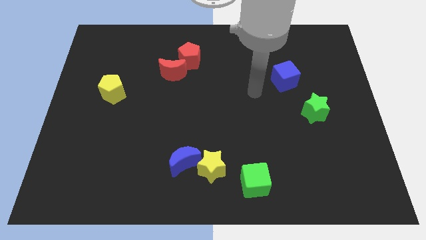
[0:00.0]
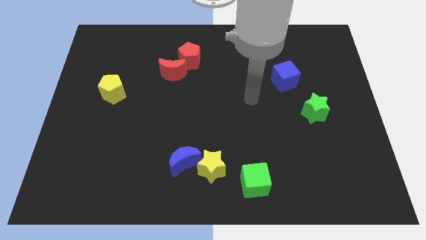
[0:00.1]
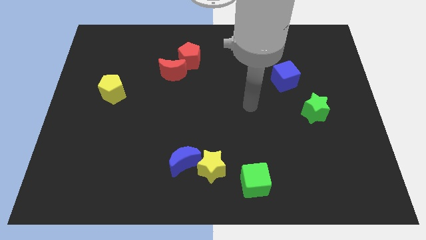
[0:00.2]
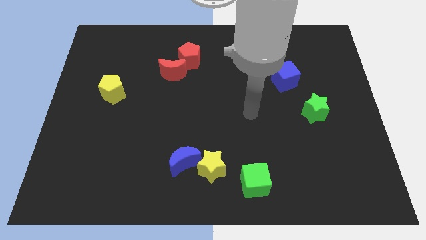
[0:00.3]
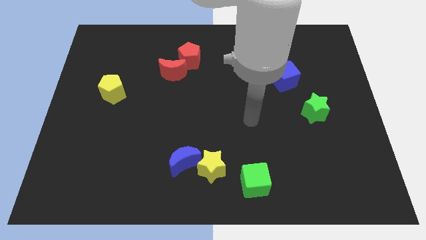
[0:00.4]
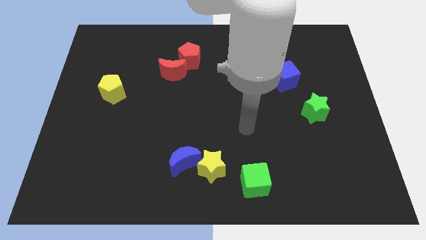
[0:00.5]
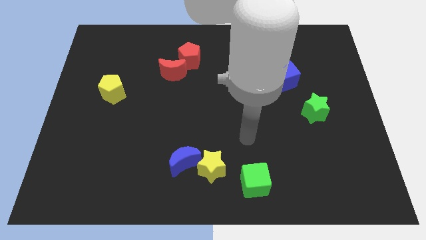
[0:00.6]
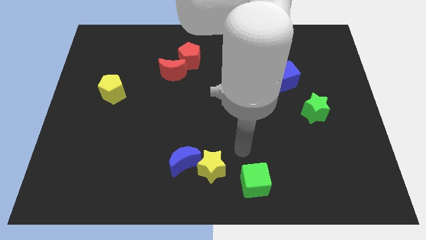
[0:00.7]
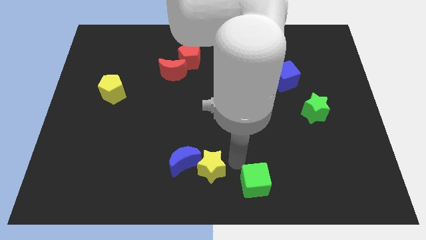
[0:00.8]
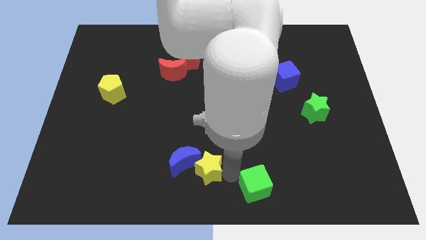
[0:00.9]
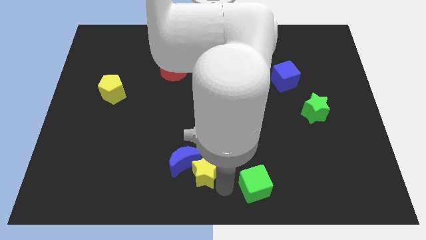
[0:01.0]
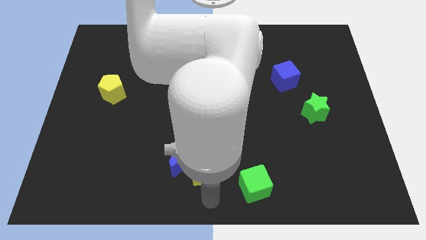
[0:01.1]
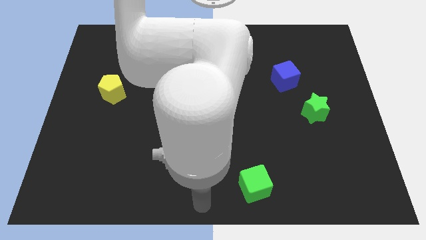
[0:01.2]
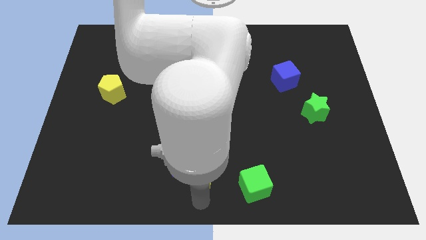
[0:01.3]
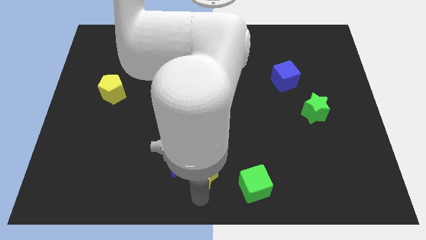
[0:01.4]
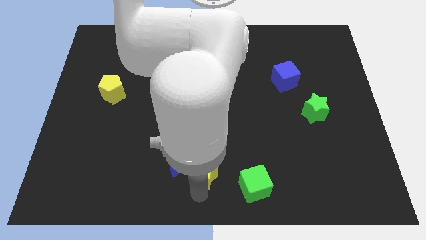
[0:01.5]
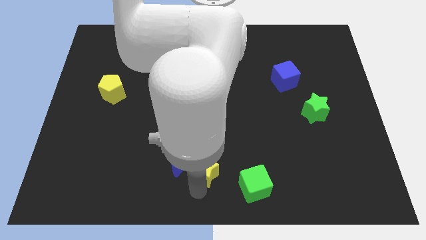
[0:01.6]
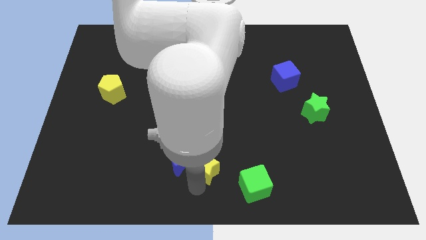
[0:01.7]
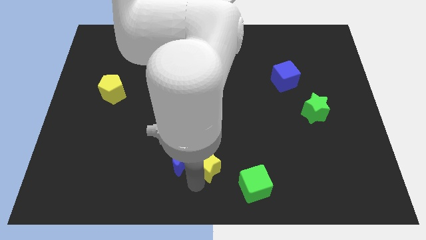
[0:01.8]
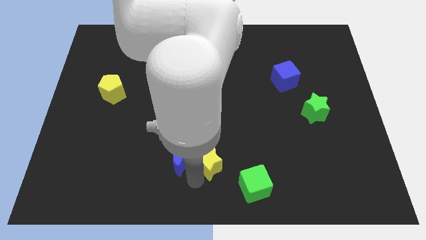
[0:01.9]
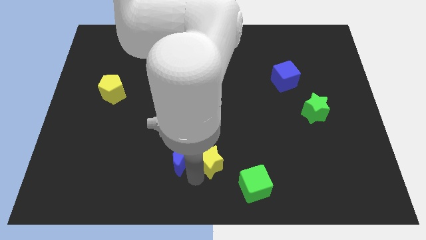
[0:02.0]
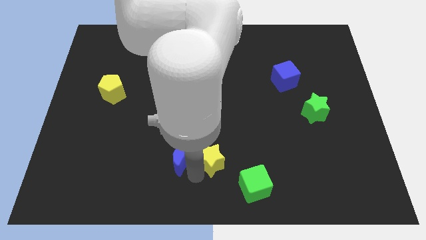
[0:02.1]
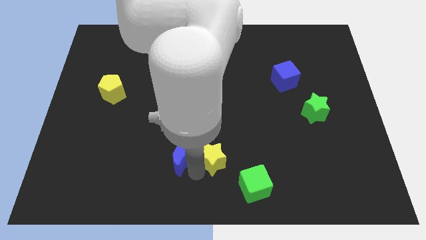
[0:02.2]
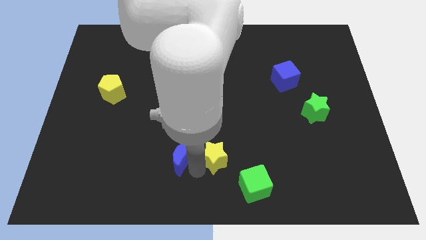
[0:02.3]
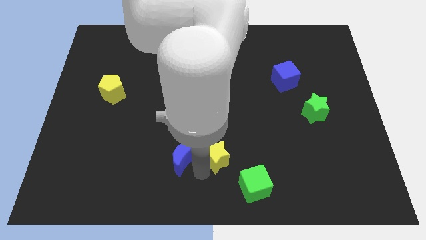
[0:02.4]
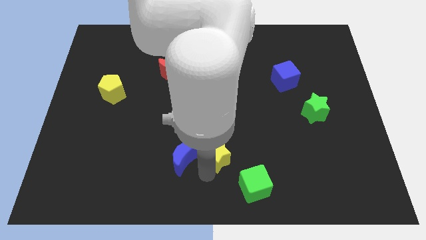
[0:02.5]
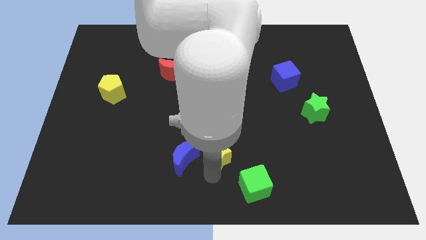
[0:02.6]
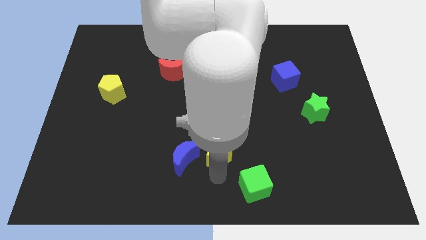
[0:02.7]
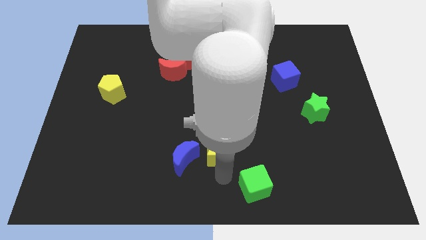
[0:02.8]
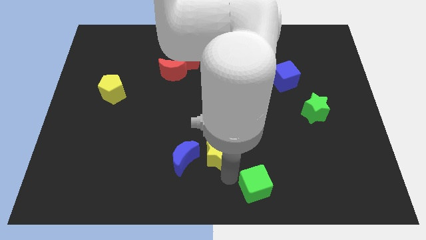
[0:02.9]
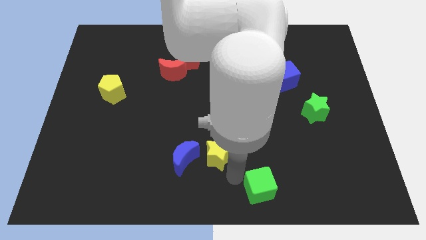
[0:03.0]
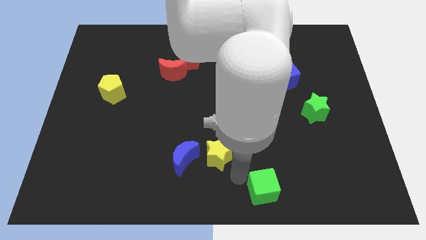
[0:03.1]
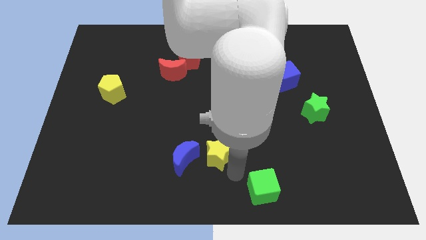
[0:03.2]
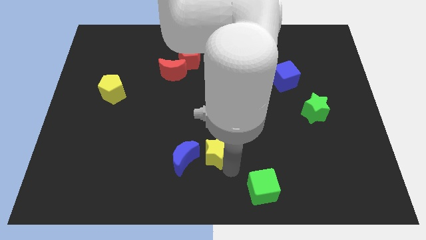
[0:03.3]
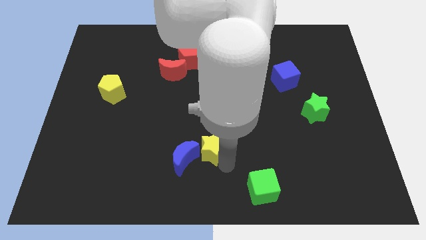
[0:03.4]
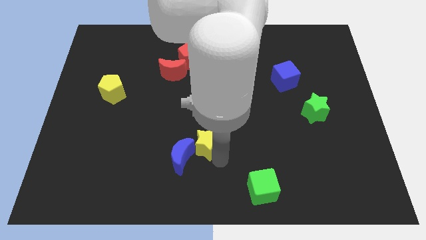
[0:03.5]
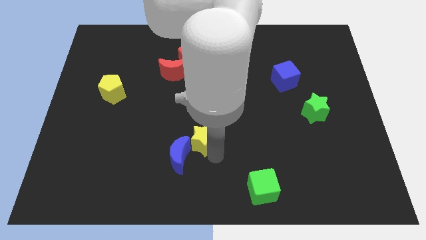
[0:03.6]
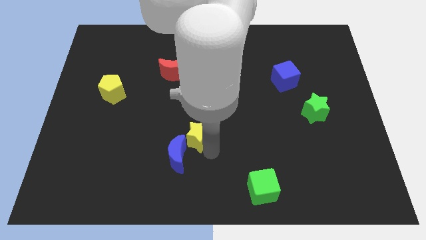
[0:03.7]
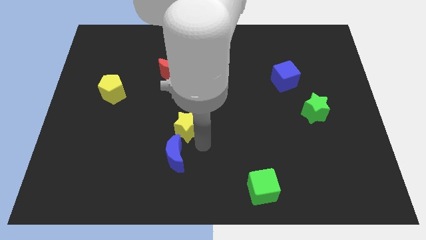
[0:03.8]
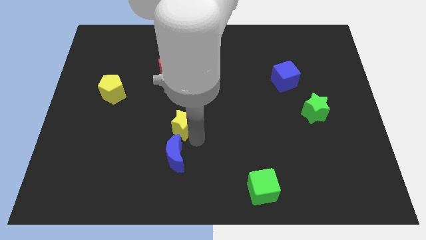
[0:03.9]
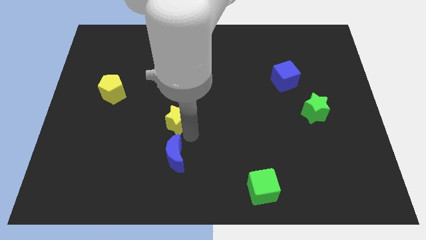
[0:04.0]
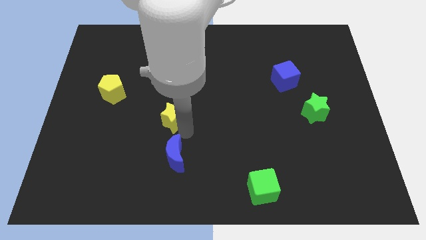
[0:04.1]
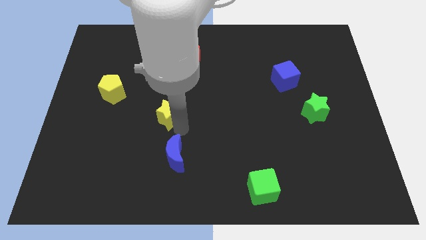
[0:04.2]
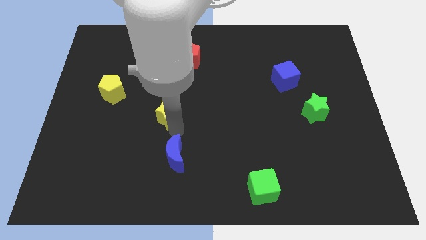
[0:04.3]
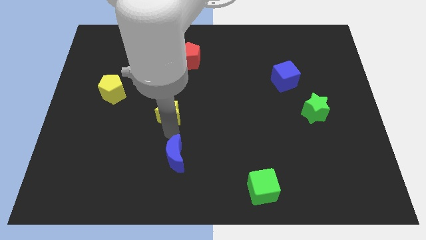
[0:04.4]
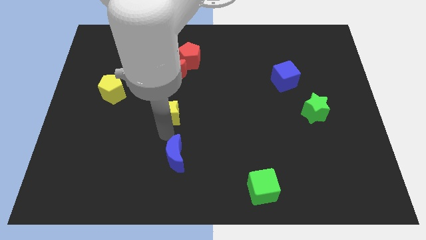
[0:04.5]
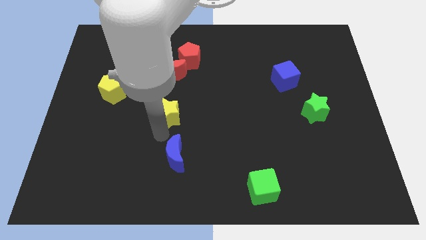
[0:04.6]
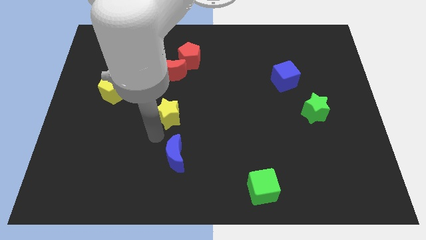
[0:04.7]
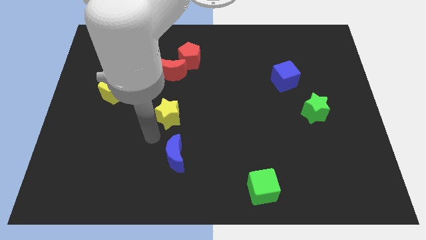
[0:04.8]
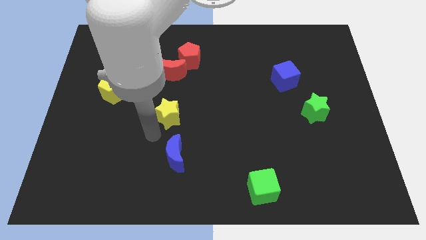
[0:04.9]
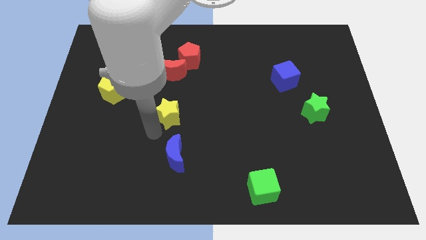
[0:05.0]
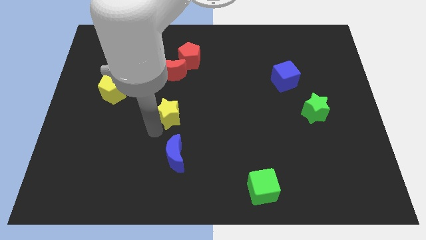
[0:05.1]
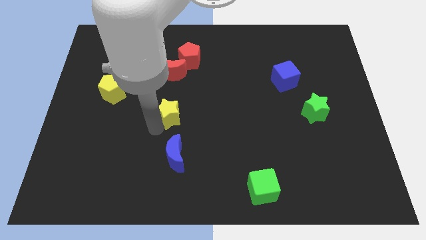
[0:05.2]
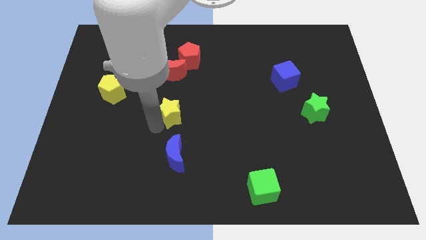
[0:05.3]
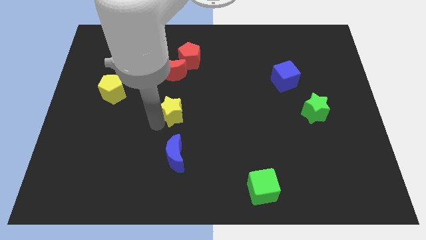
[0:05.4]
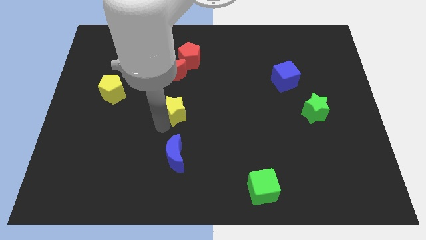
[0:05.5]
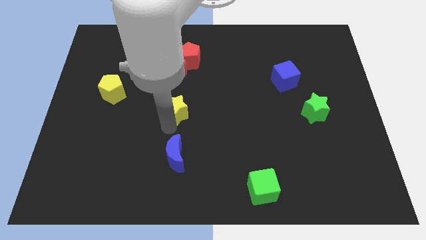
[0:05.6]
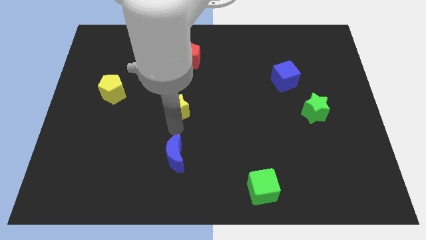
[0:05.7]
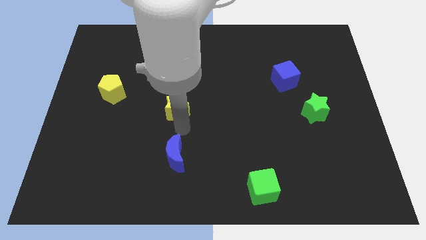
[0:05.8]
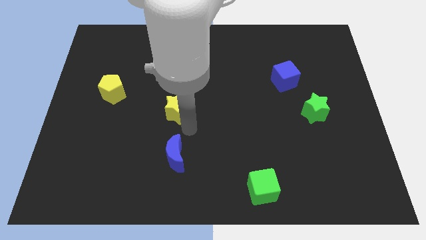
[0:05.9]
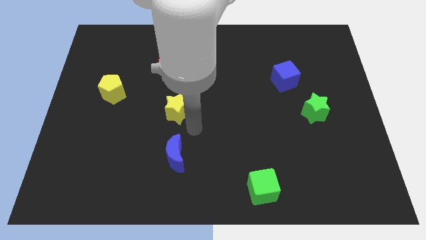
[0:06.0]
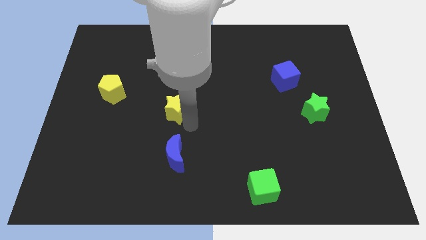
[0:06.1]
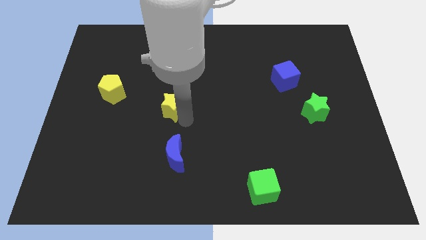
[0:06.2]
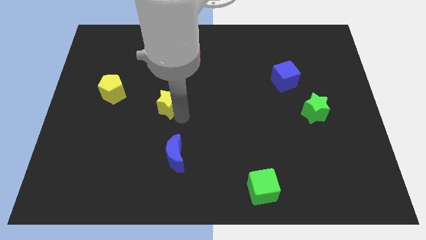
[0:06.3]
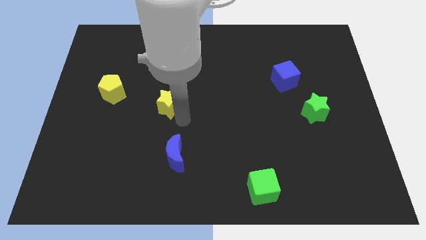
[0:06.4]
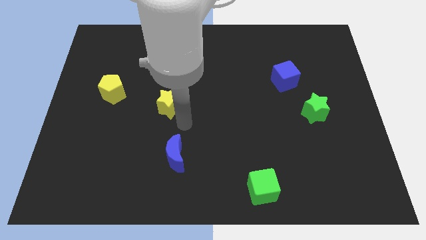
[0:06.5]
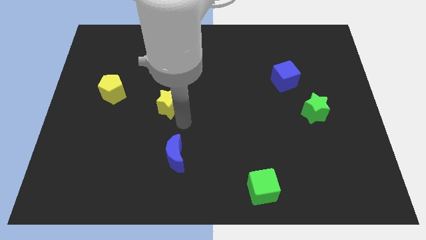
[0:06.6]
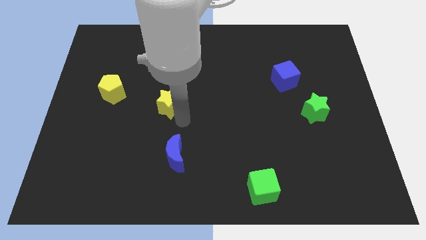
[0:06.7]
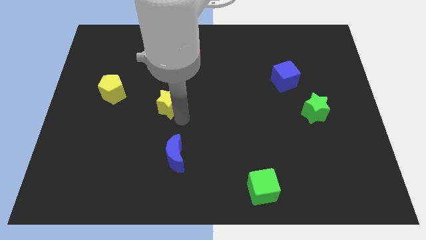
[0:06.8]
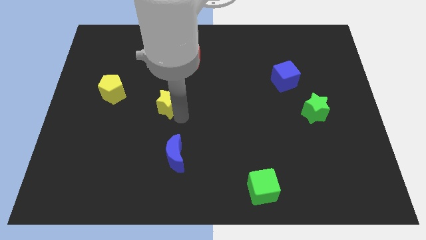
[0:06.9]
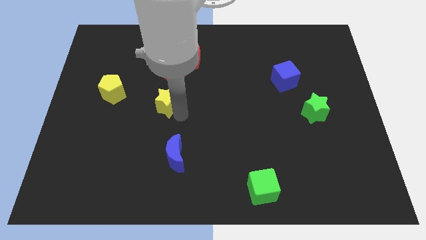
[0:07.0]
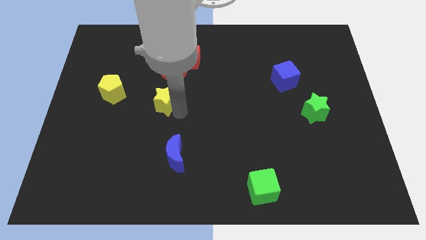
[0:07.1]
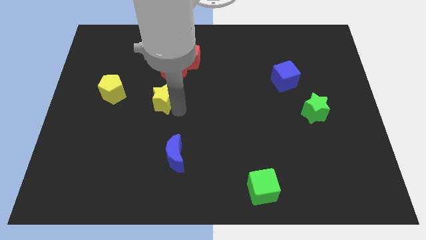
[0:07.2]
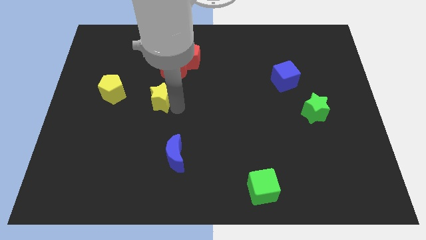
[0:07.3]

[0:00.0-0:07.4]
push the yellow star diagonally down and to the left of the red moon
